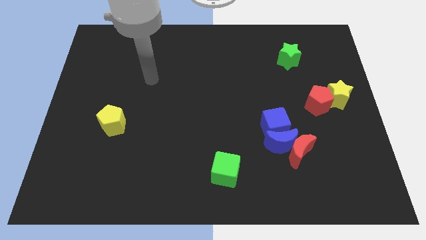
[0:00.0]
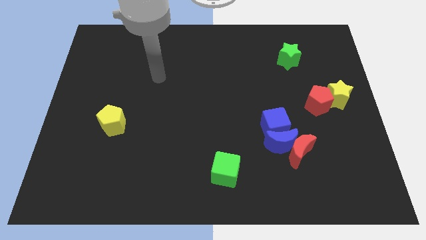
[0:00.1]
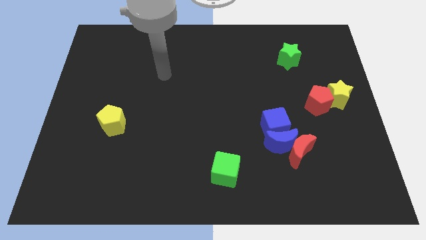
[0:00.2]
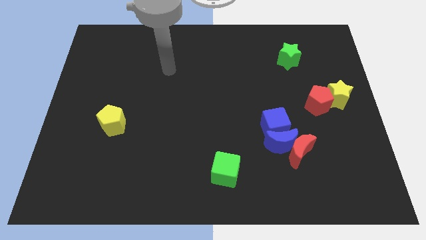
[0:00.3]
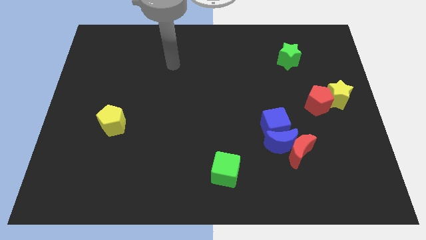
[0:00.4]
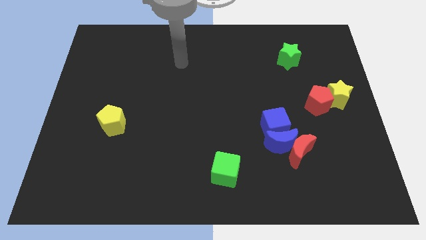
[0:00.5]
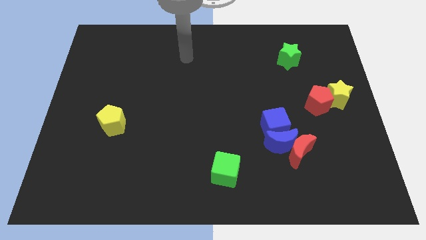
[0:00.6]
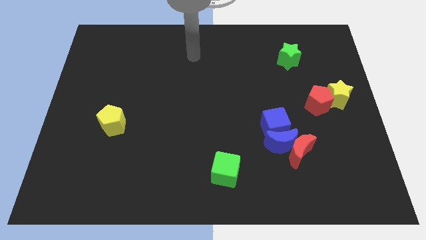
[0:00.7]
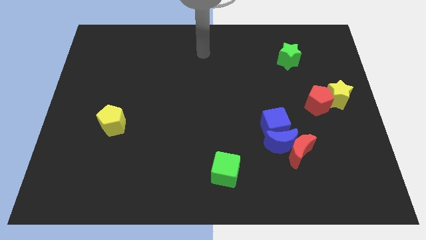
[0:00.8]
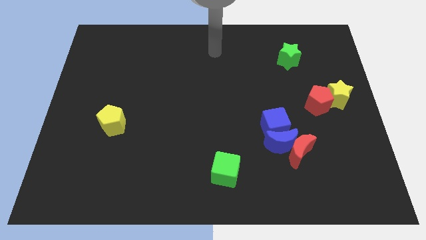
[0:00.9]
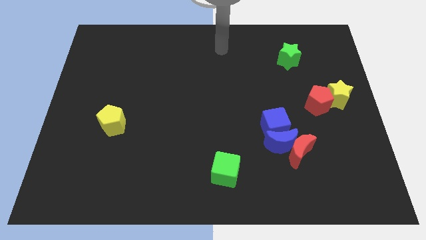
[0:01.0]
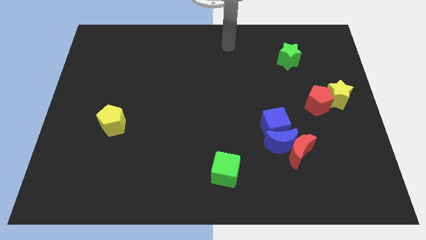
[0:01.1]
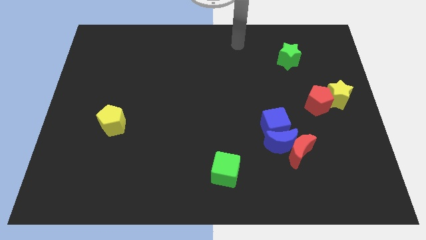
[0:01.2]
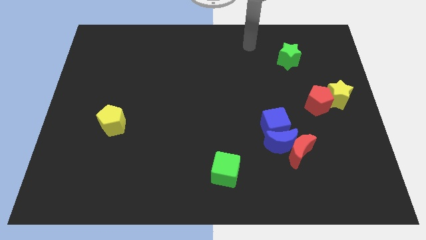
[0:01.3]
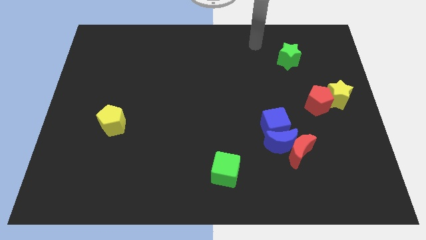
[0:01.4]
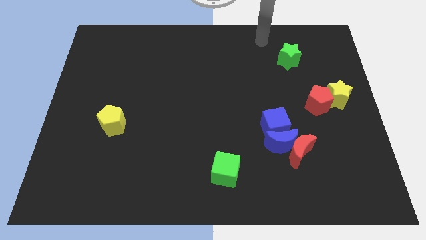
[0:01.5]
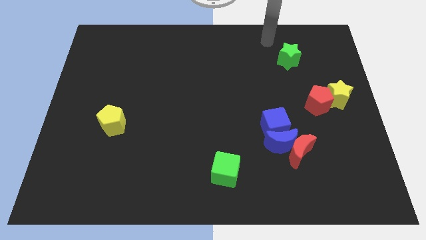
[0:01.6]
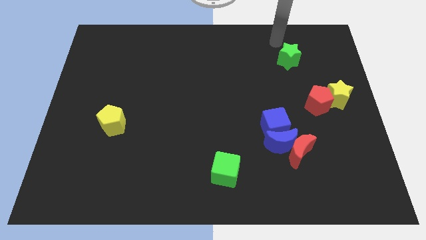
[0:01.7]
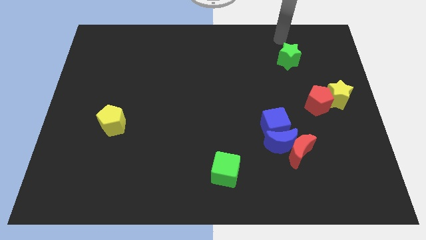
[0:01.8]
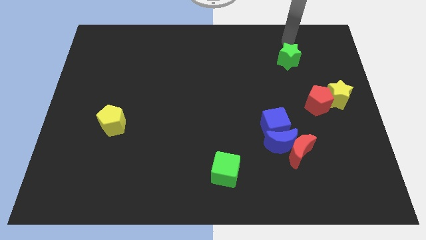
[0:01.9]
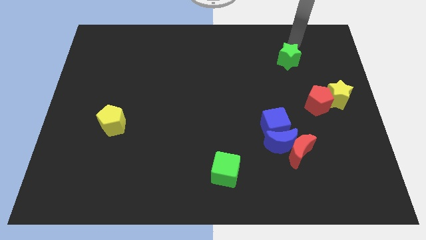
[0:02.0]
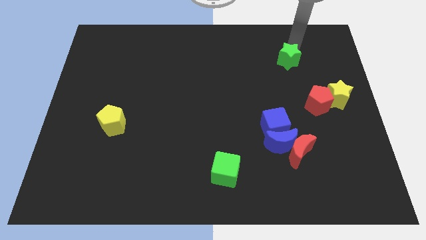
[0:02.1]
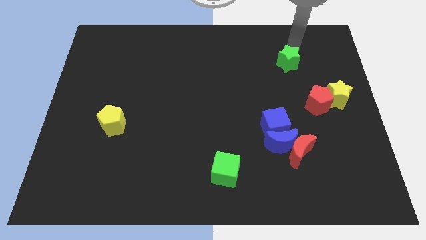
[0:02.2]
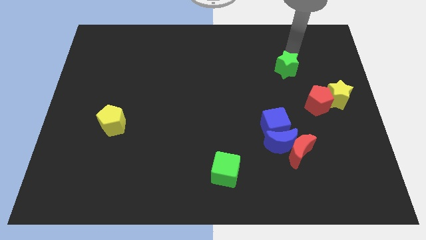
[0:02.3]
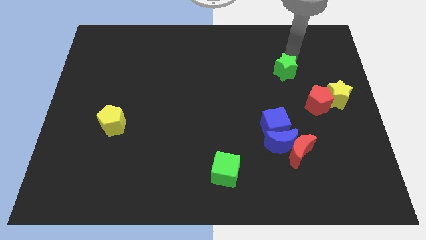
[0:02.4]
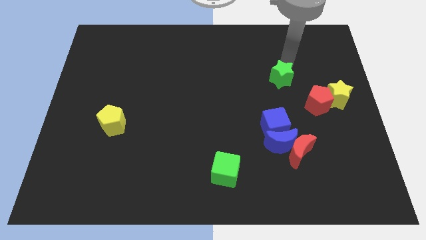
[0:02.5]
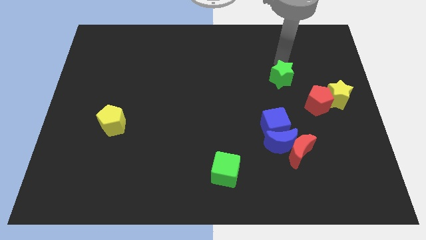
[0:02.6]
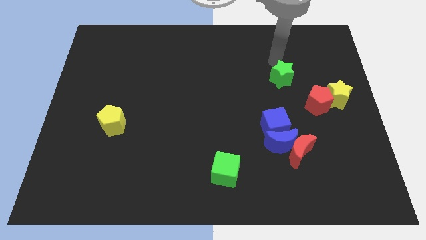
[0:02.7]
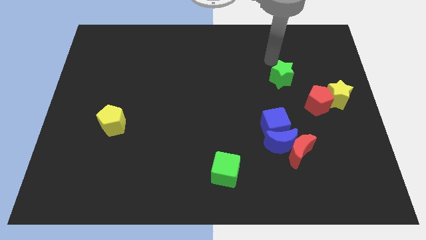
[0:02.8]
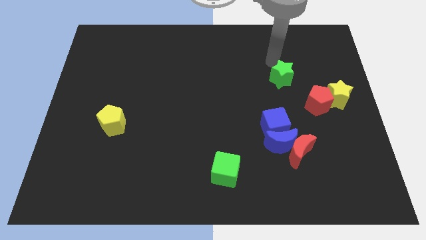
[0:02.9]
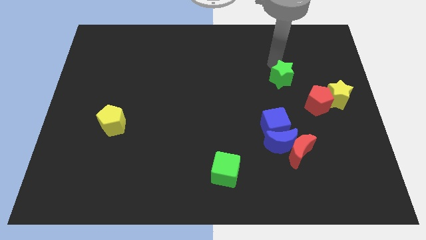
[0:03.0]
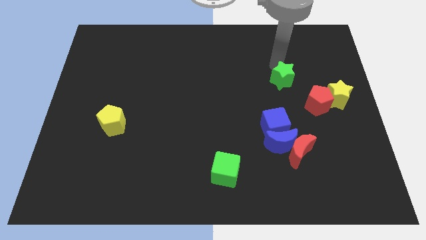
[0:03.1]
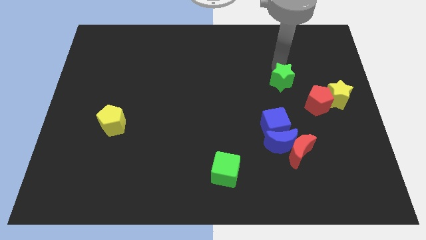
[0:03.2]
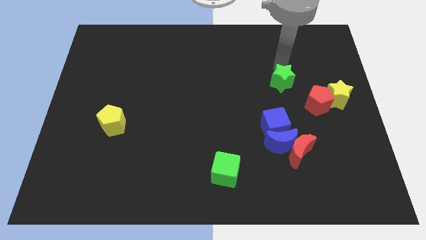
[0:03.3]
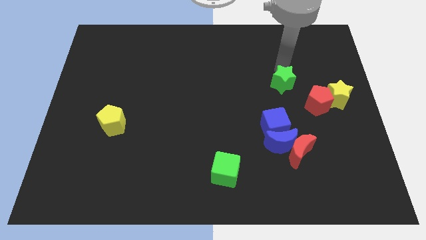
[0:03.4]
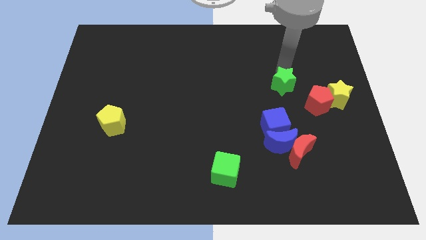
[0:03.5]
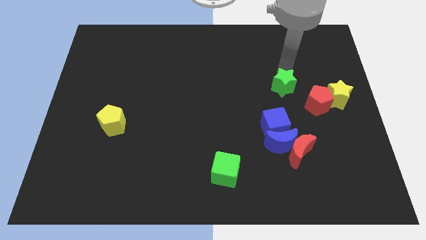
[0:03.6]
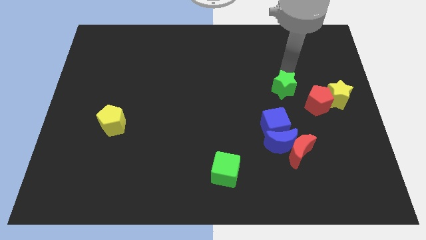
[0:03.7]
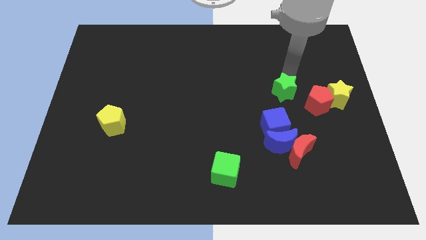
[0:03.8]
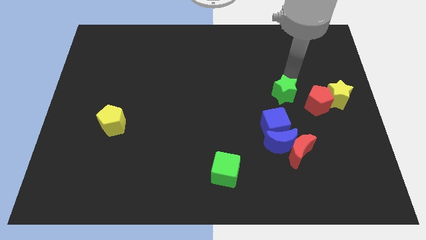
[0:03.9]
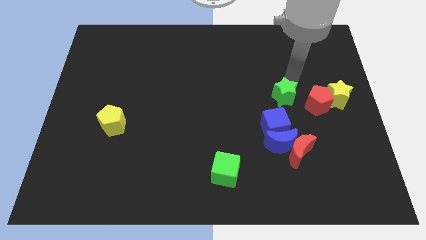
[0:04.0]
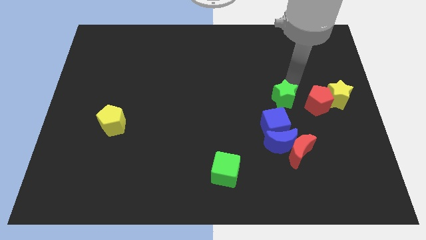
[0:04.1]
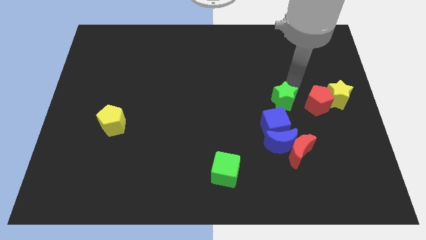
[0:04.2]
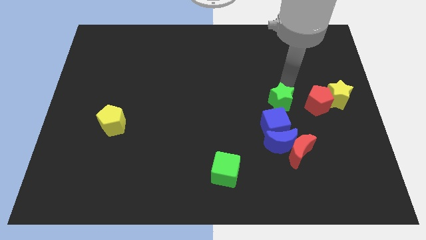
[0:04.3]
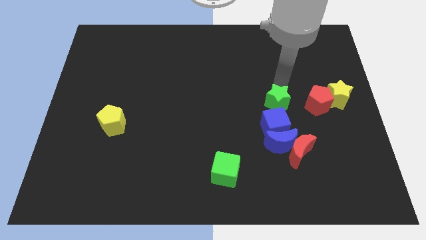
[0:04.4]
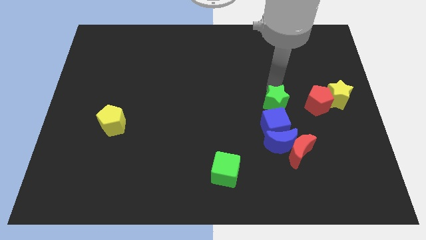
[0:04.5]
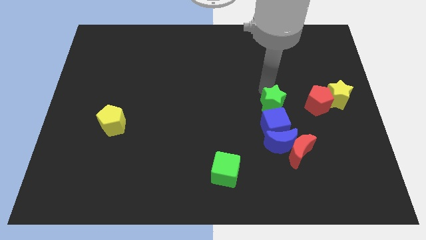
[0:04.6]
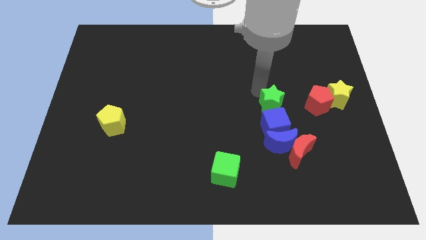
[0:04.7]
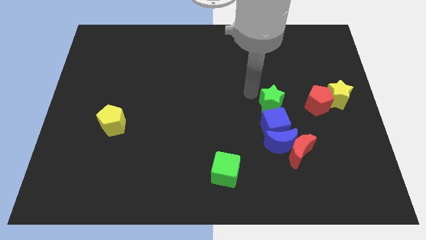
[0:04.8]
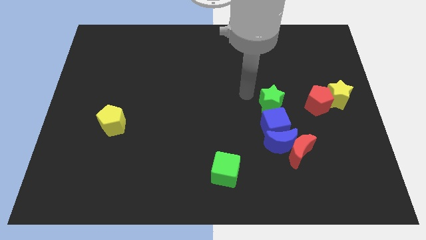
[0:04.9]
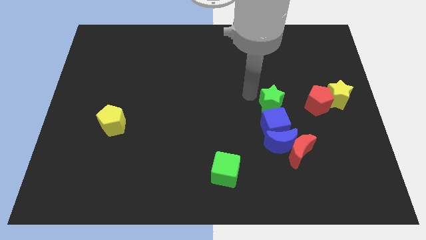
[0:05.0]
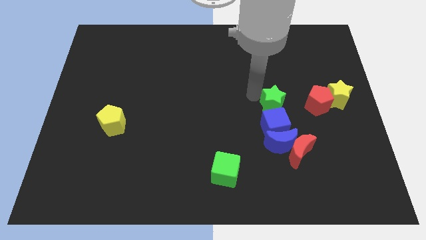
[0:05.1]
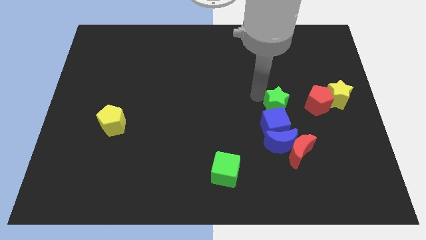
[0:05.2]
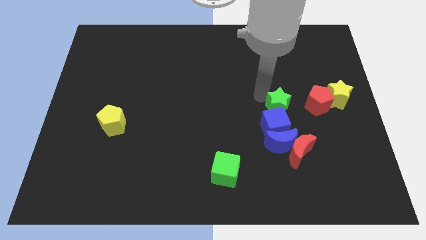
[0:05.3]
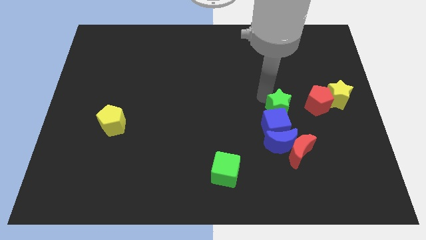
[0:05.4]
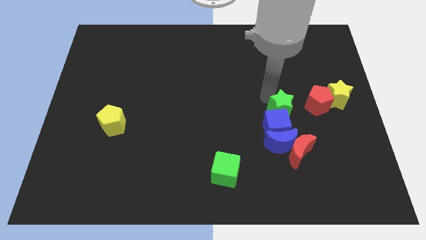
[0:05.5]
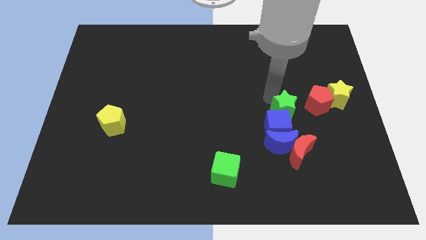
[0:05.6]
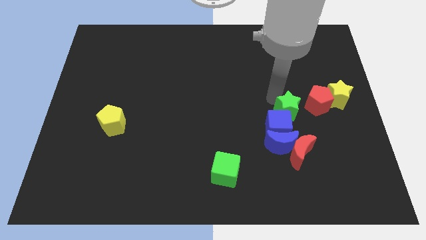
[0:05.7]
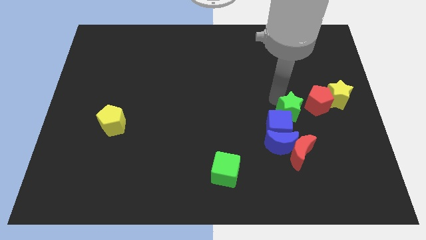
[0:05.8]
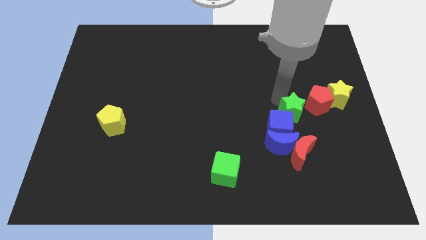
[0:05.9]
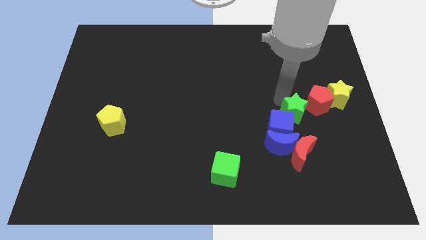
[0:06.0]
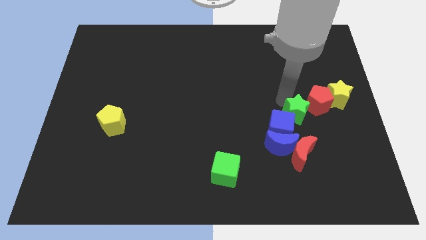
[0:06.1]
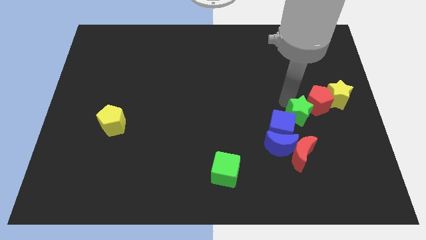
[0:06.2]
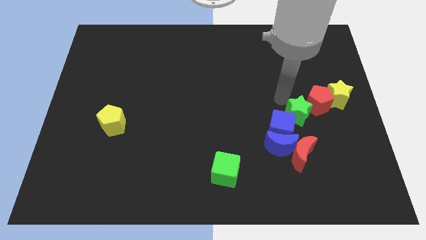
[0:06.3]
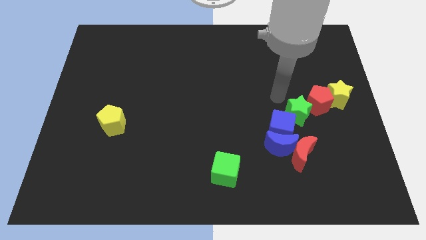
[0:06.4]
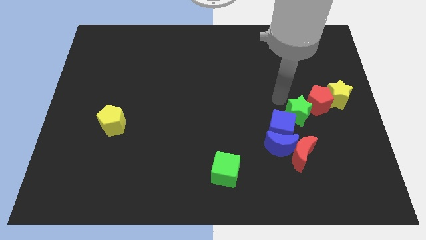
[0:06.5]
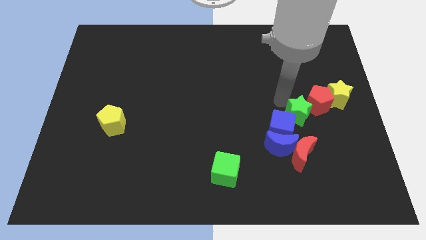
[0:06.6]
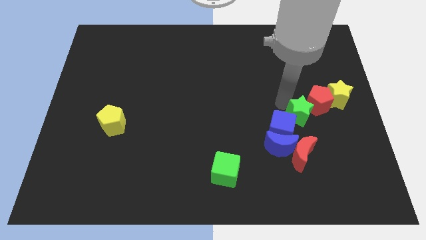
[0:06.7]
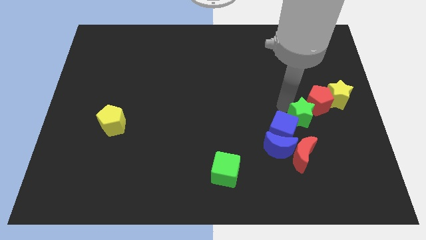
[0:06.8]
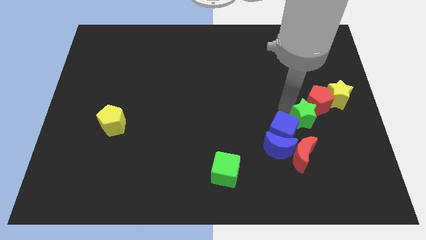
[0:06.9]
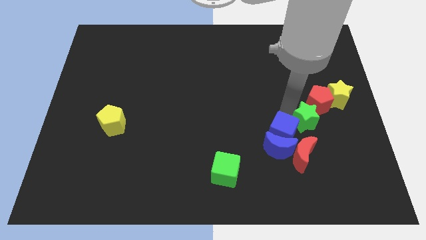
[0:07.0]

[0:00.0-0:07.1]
push the green star downwards

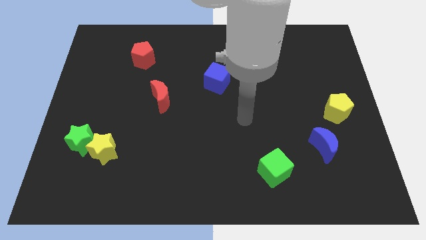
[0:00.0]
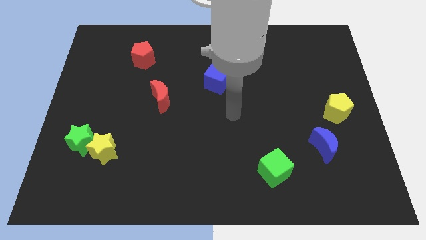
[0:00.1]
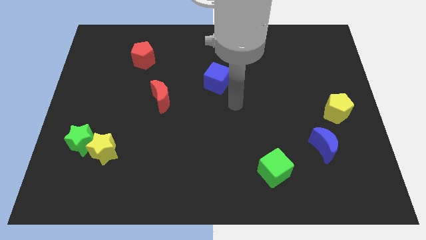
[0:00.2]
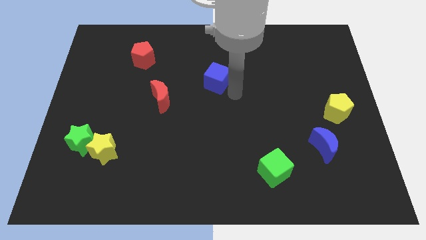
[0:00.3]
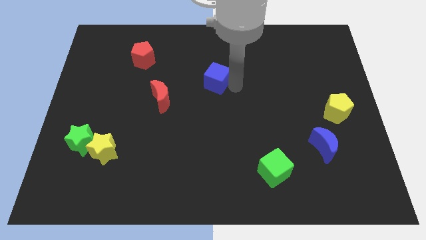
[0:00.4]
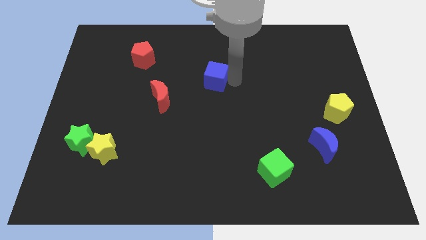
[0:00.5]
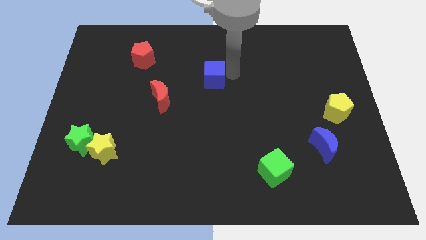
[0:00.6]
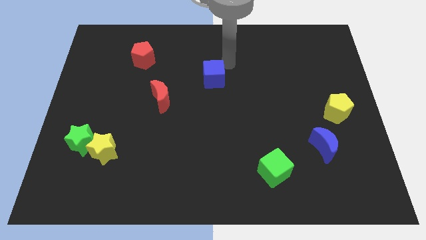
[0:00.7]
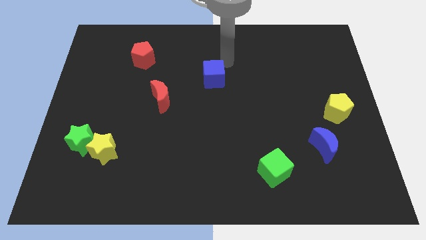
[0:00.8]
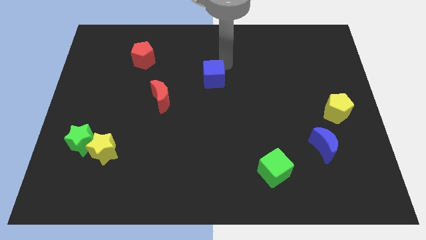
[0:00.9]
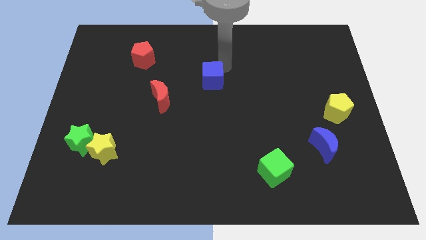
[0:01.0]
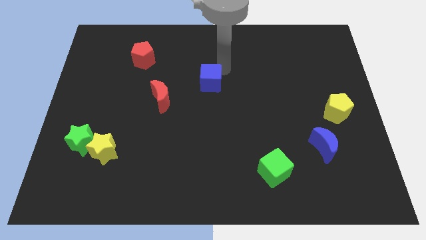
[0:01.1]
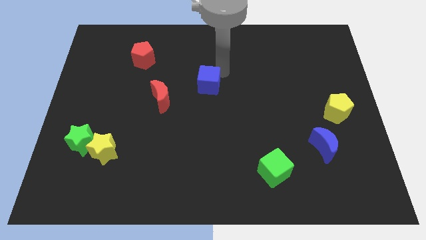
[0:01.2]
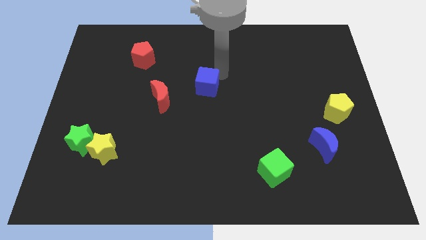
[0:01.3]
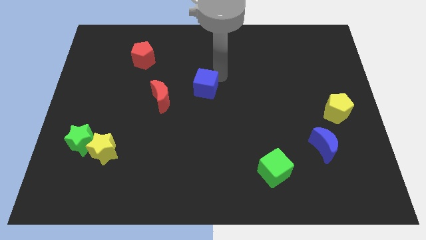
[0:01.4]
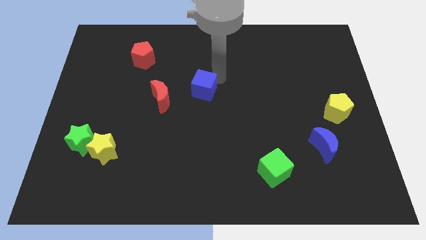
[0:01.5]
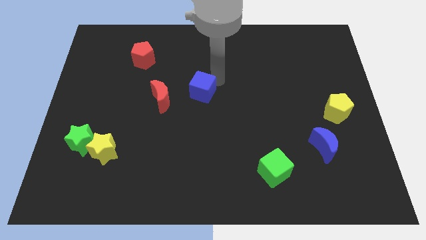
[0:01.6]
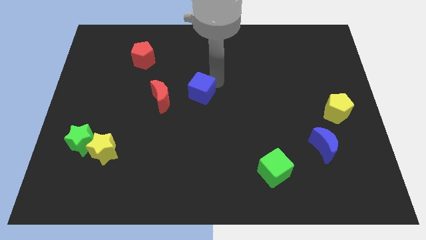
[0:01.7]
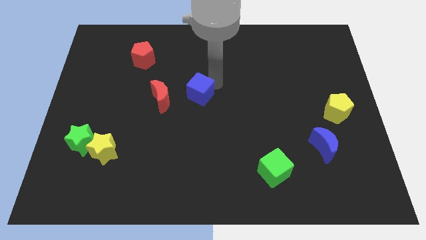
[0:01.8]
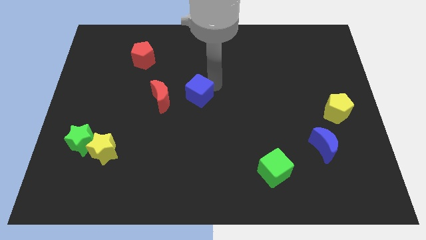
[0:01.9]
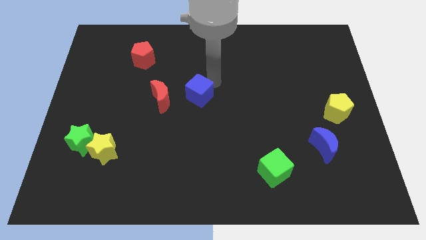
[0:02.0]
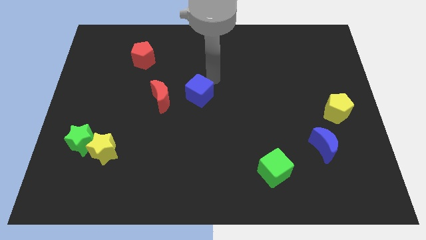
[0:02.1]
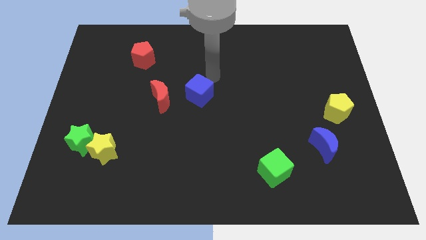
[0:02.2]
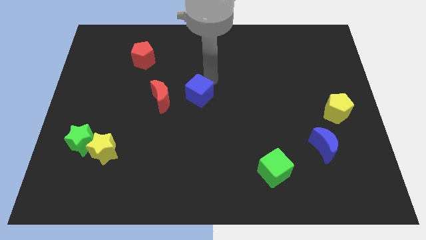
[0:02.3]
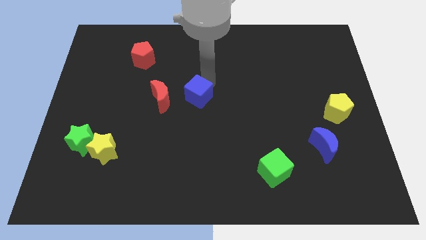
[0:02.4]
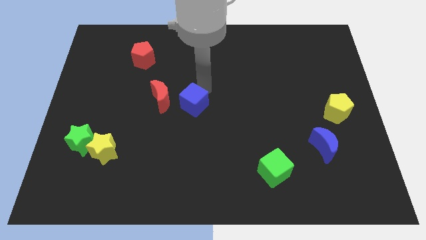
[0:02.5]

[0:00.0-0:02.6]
slightly push the blue cube downwards and then to the left
